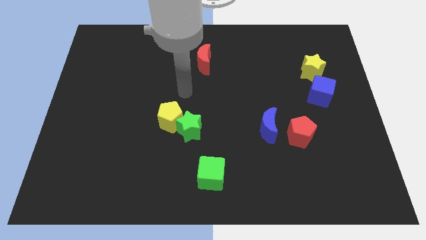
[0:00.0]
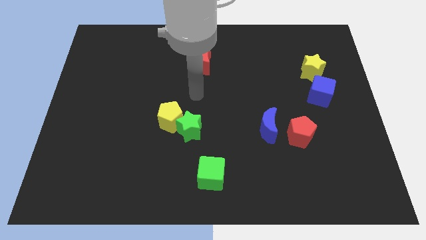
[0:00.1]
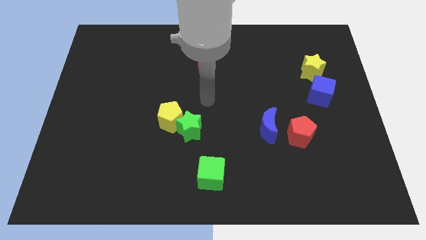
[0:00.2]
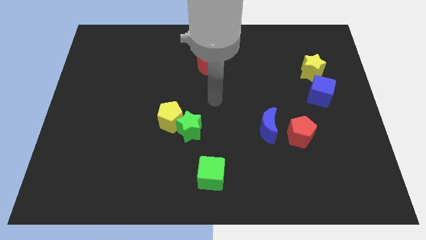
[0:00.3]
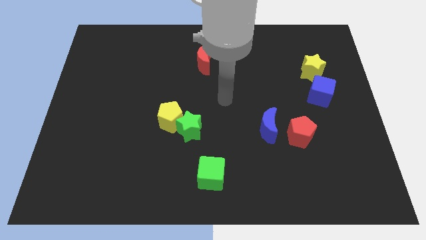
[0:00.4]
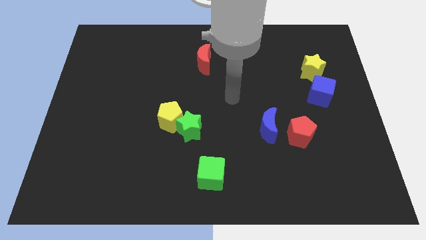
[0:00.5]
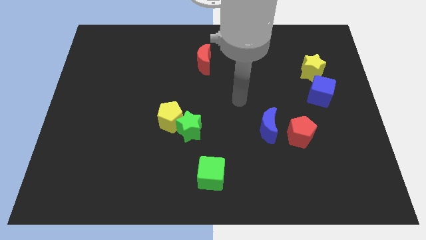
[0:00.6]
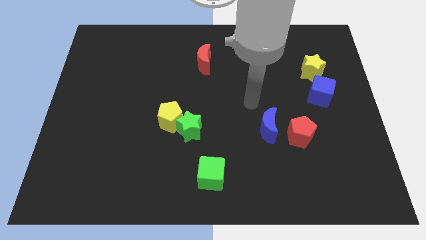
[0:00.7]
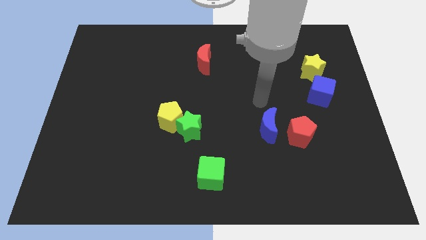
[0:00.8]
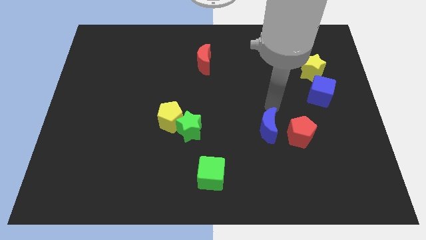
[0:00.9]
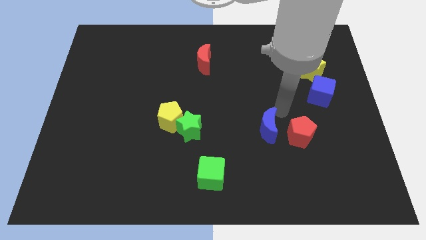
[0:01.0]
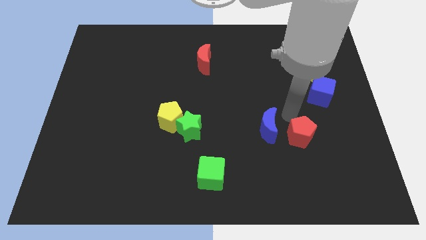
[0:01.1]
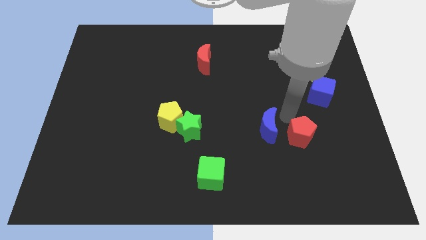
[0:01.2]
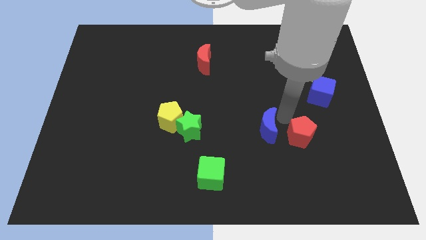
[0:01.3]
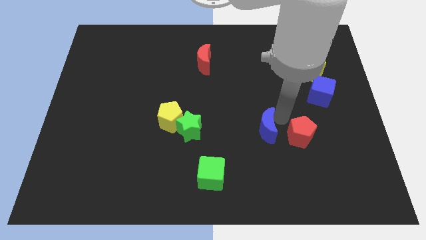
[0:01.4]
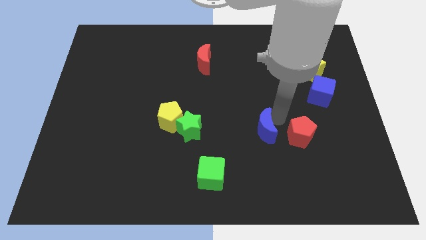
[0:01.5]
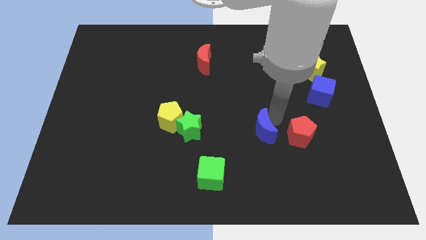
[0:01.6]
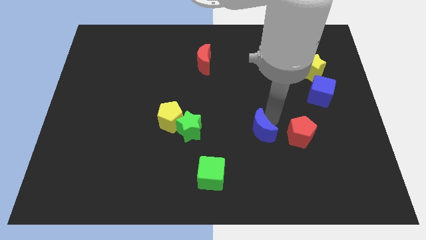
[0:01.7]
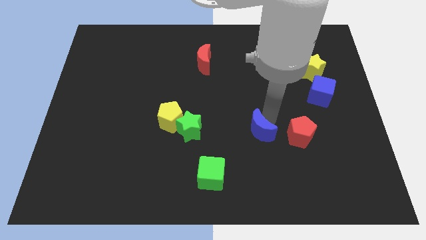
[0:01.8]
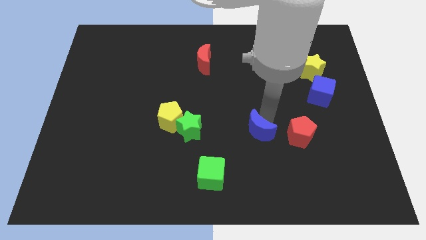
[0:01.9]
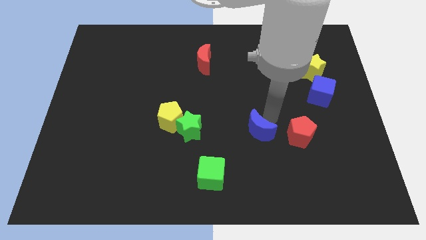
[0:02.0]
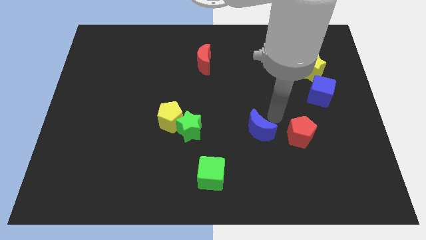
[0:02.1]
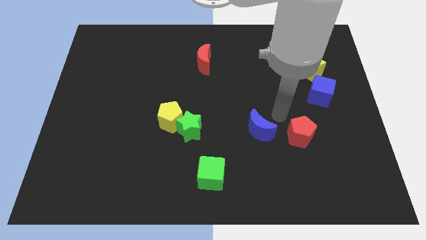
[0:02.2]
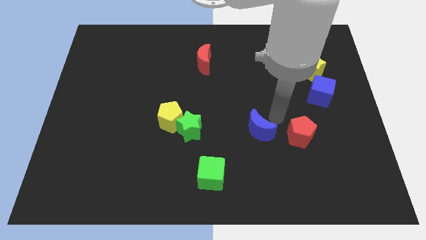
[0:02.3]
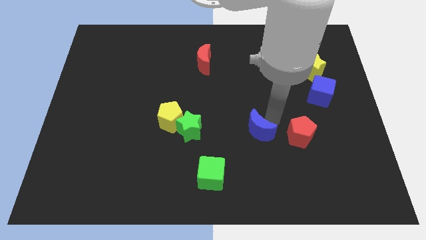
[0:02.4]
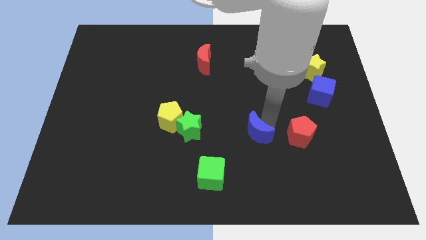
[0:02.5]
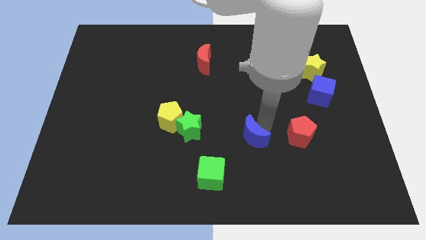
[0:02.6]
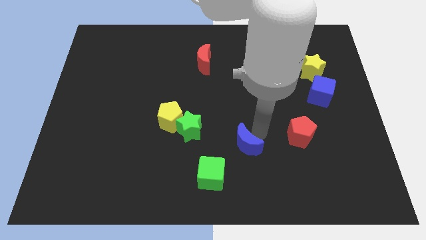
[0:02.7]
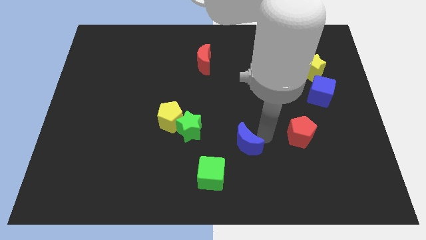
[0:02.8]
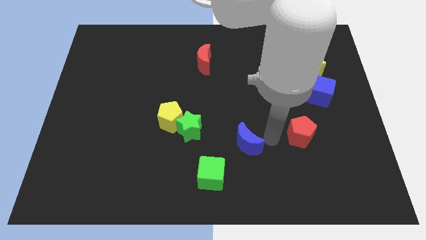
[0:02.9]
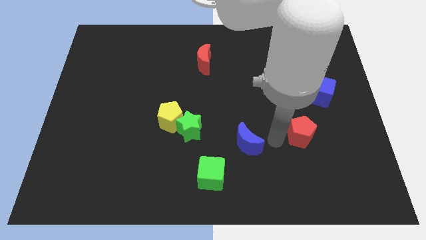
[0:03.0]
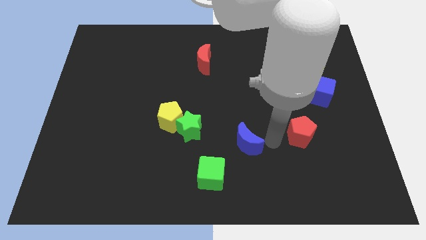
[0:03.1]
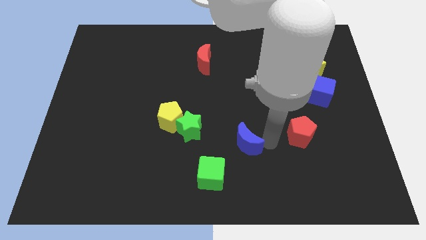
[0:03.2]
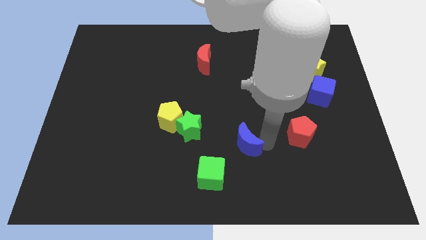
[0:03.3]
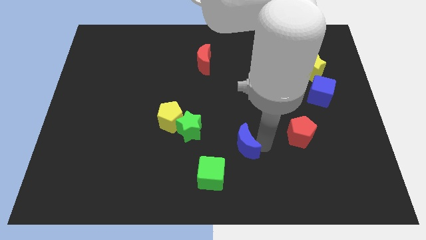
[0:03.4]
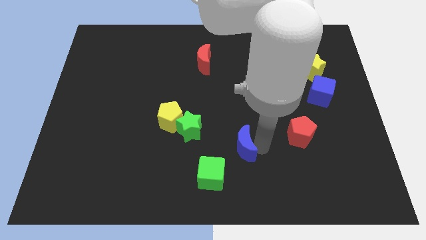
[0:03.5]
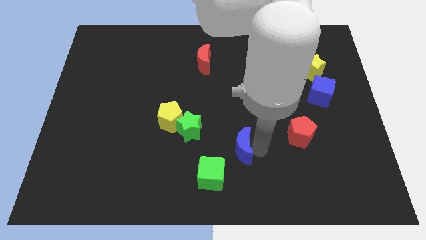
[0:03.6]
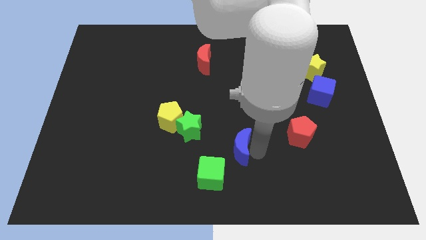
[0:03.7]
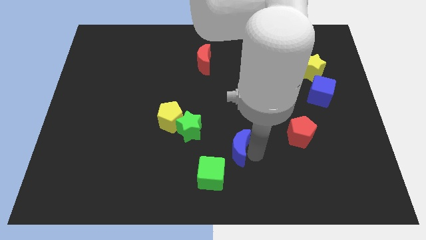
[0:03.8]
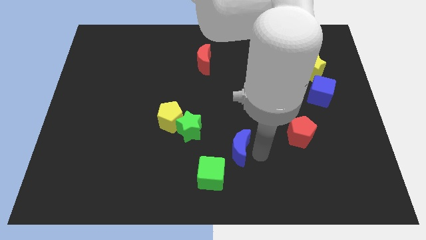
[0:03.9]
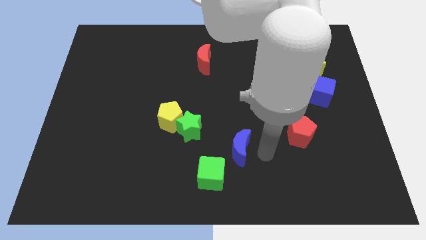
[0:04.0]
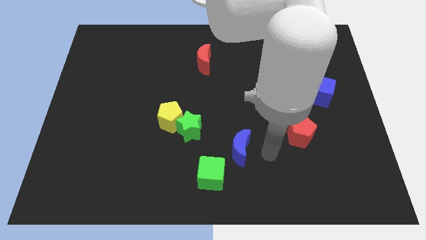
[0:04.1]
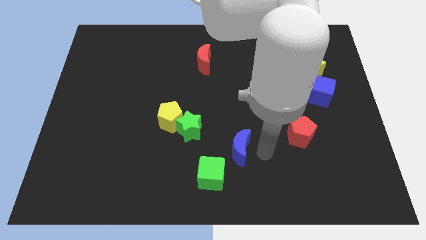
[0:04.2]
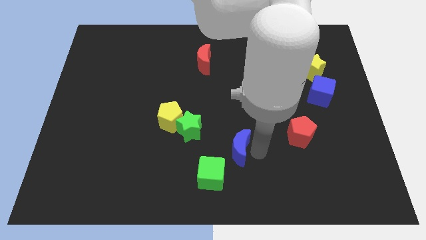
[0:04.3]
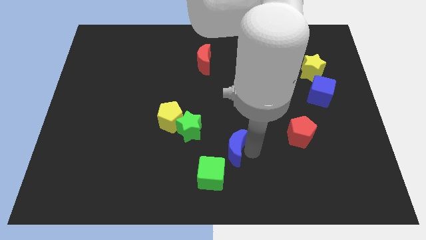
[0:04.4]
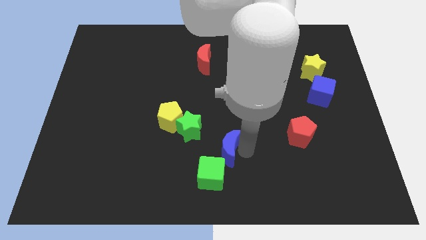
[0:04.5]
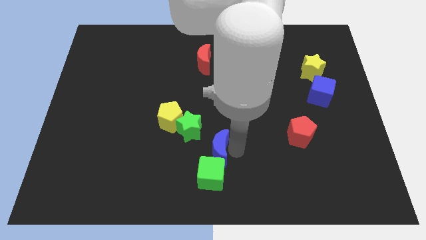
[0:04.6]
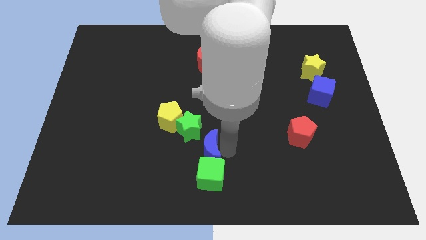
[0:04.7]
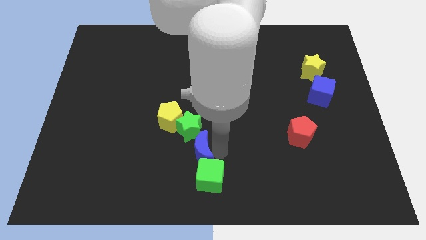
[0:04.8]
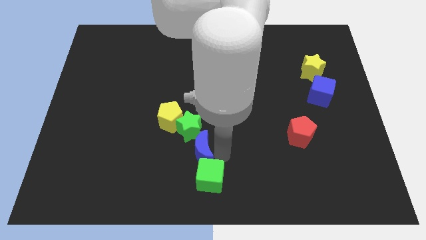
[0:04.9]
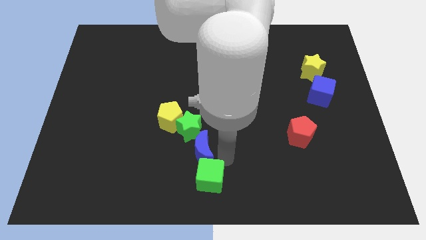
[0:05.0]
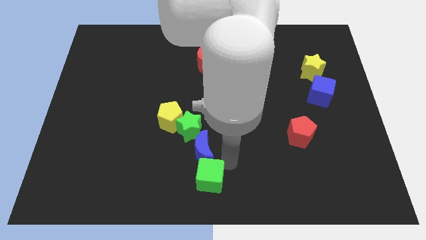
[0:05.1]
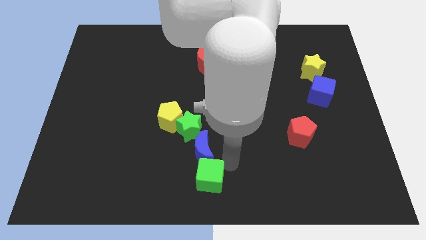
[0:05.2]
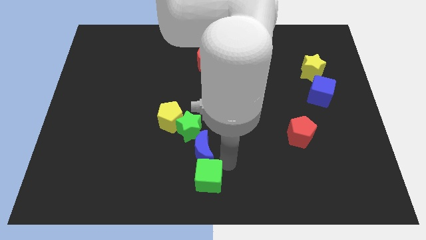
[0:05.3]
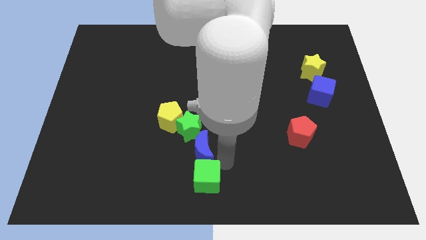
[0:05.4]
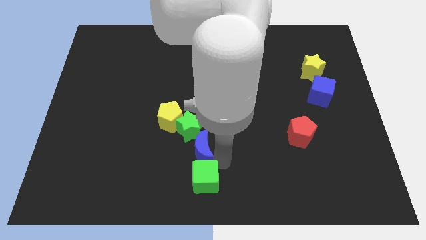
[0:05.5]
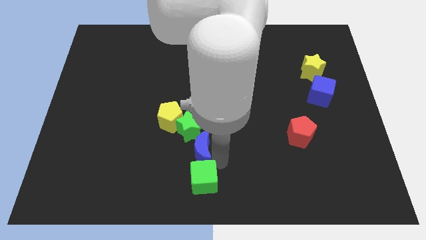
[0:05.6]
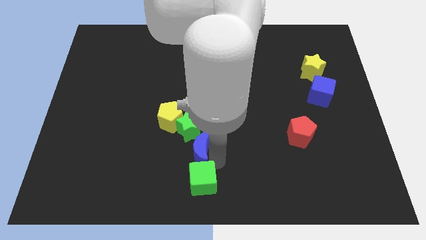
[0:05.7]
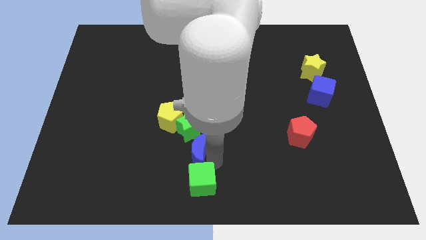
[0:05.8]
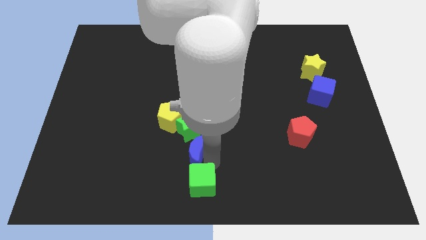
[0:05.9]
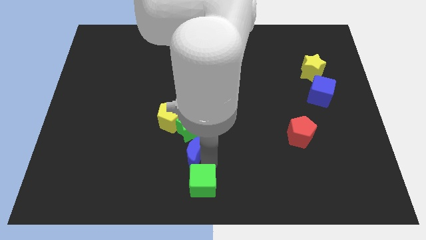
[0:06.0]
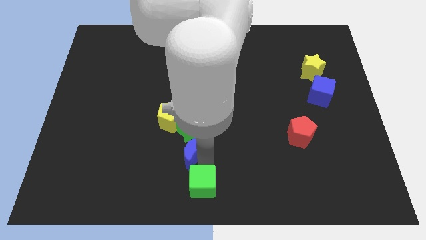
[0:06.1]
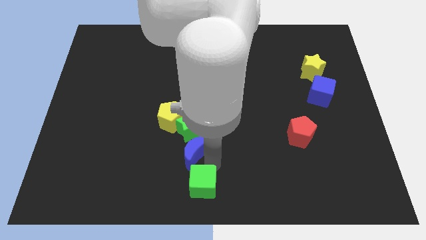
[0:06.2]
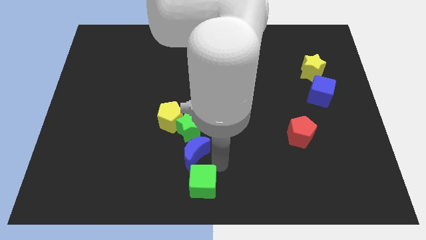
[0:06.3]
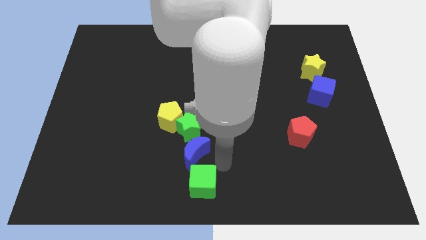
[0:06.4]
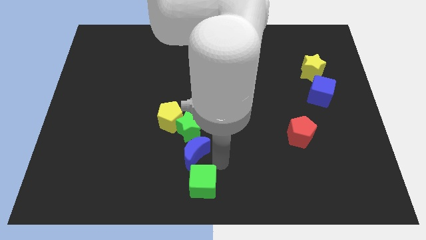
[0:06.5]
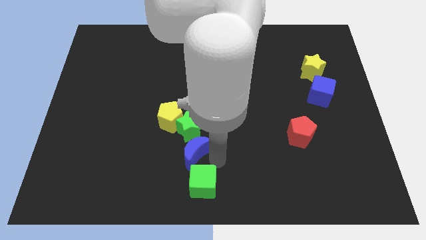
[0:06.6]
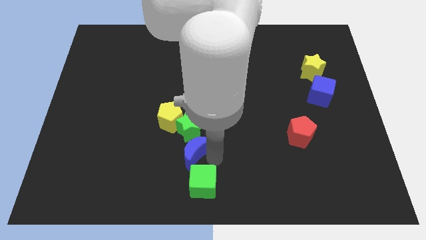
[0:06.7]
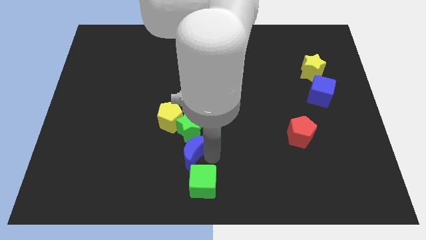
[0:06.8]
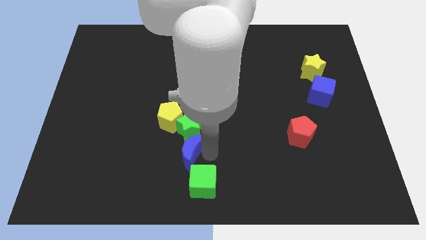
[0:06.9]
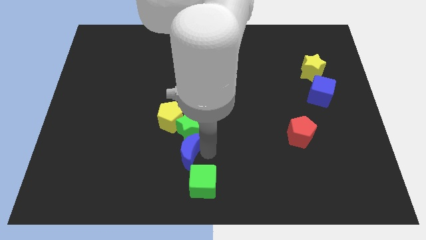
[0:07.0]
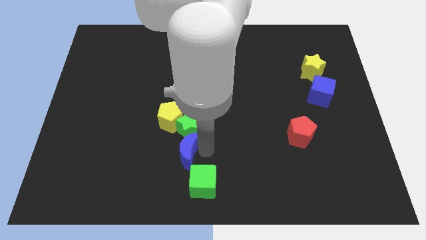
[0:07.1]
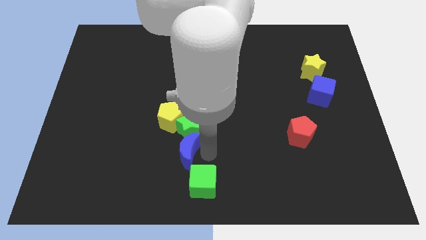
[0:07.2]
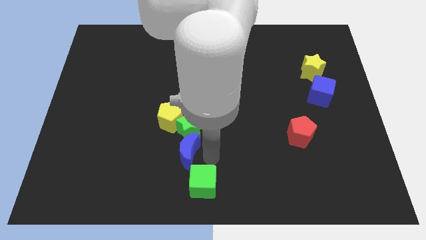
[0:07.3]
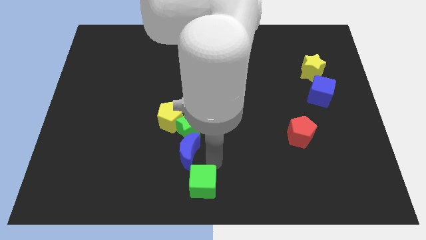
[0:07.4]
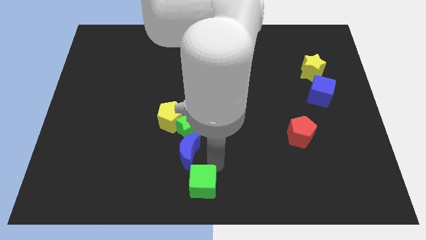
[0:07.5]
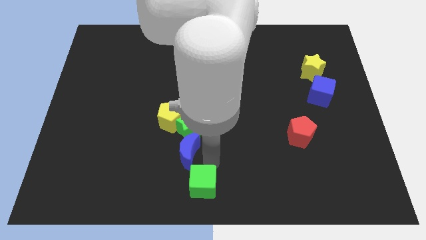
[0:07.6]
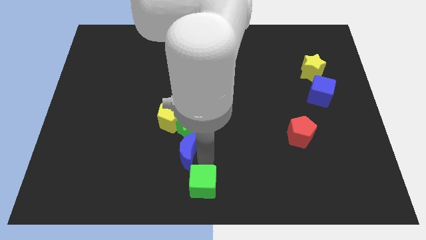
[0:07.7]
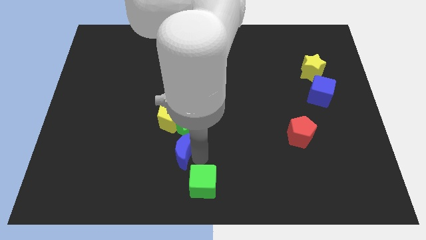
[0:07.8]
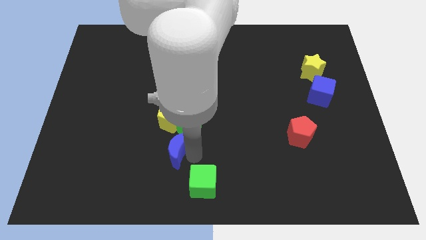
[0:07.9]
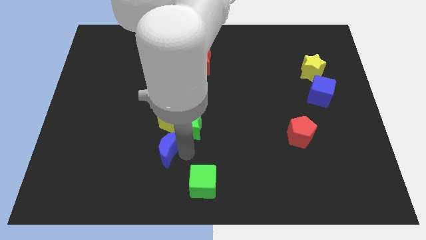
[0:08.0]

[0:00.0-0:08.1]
move the blue moon to the left
